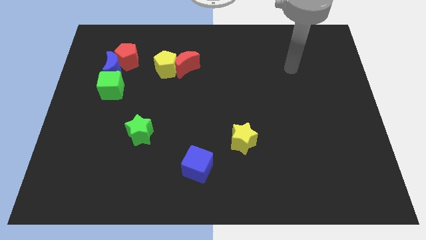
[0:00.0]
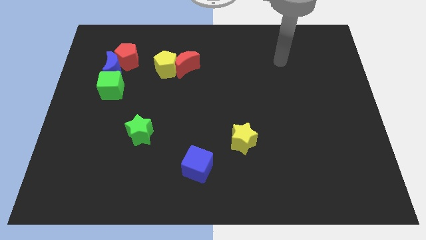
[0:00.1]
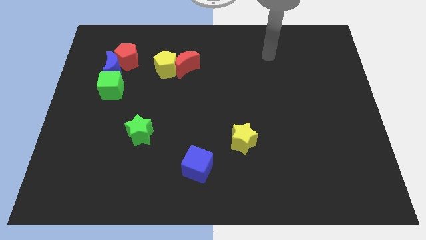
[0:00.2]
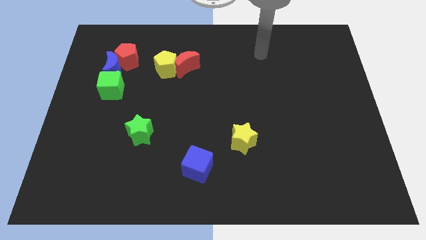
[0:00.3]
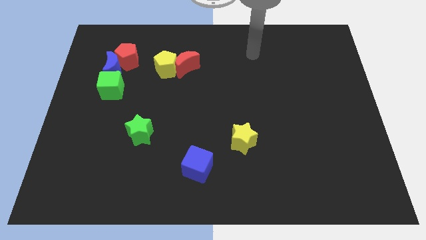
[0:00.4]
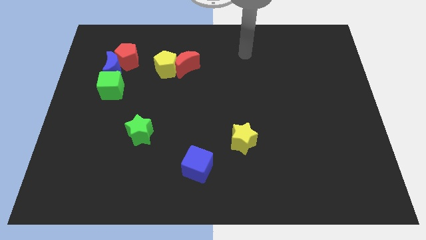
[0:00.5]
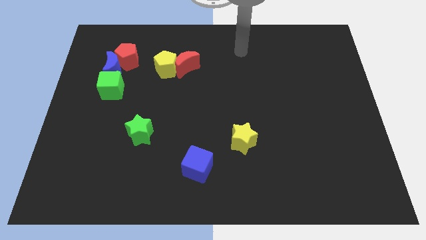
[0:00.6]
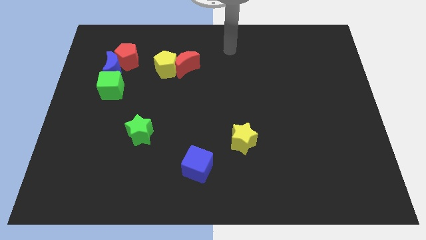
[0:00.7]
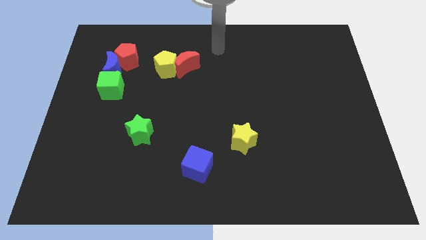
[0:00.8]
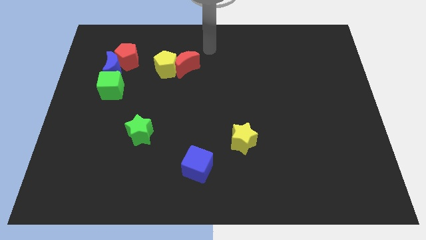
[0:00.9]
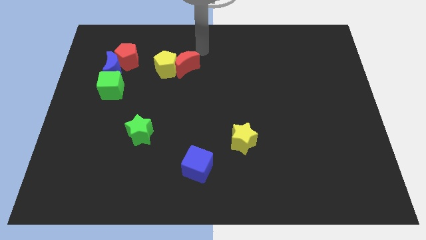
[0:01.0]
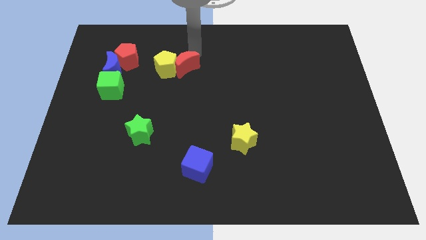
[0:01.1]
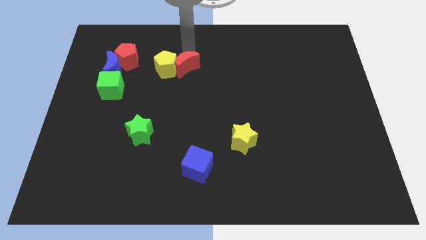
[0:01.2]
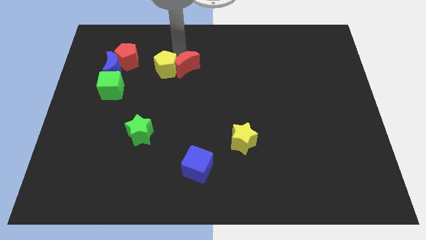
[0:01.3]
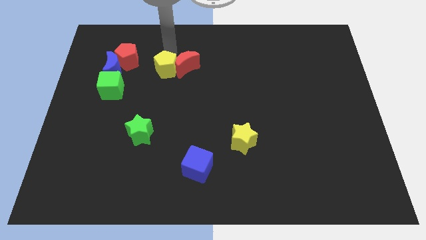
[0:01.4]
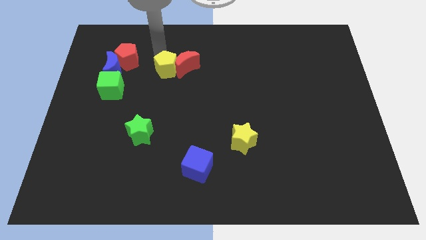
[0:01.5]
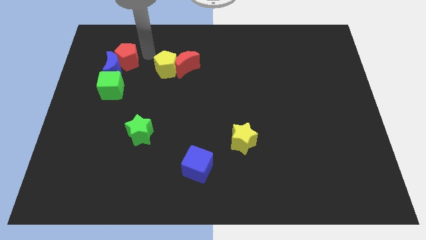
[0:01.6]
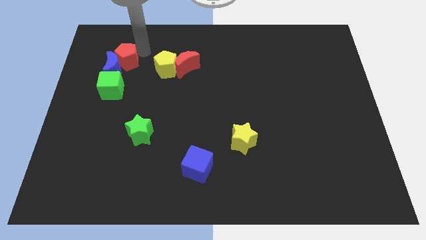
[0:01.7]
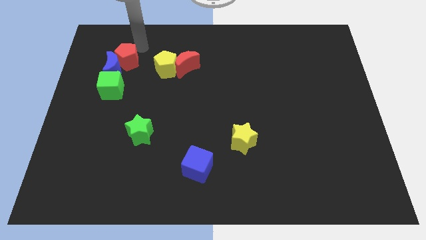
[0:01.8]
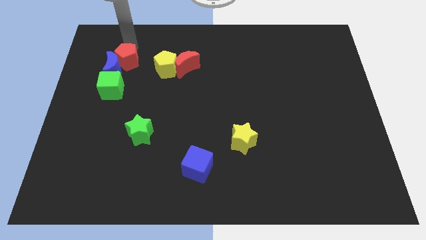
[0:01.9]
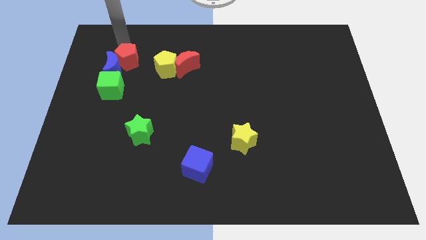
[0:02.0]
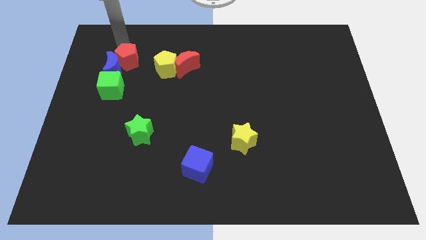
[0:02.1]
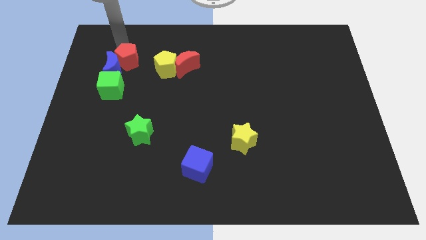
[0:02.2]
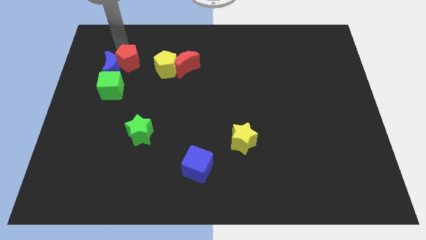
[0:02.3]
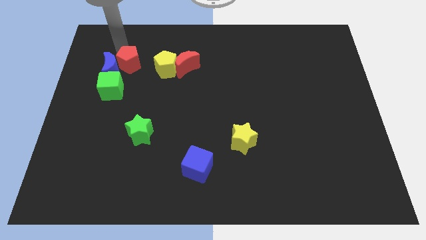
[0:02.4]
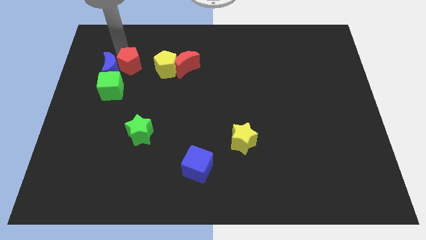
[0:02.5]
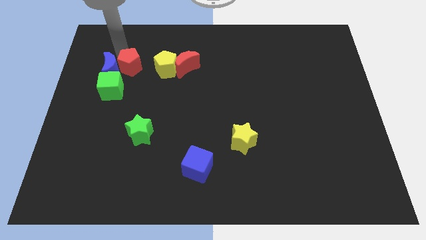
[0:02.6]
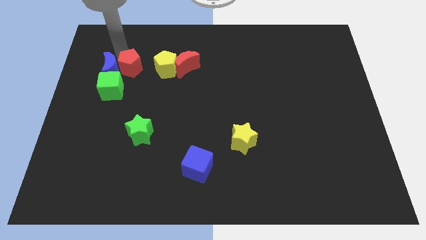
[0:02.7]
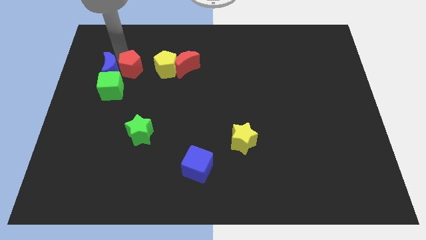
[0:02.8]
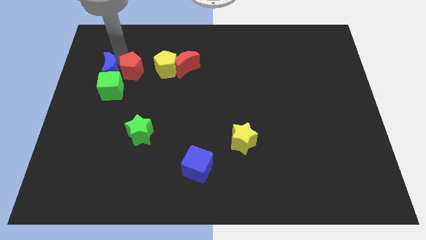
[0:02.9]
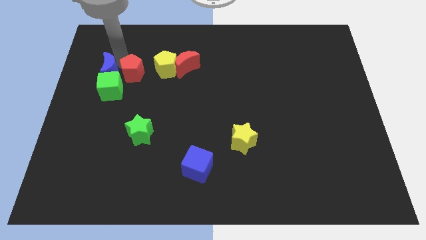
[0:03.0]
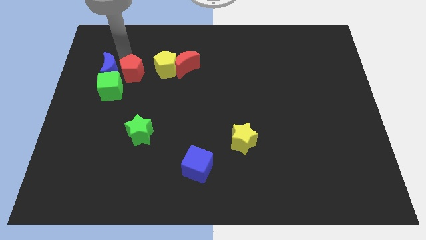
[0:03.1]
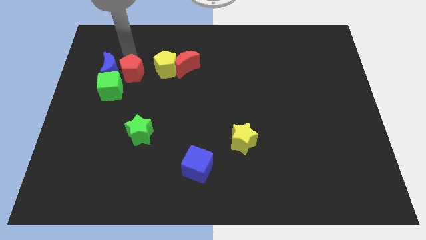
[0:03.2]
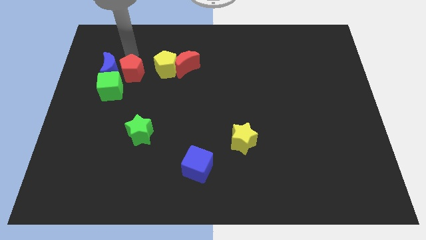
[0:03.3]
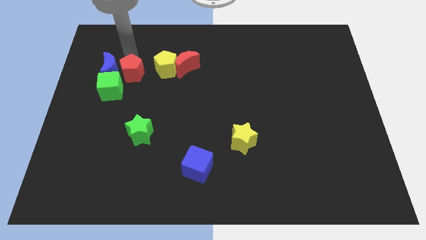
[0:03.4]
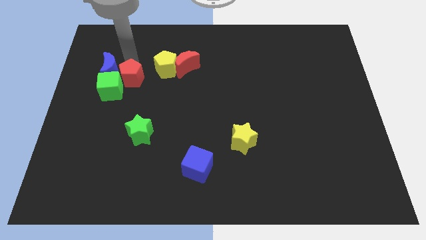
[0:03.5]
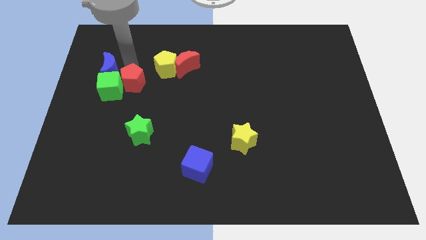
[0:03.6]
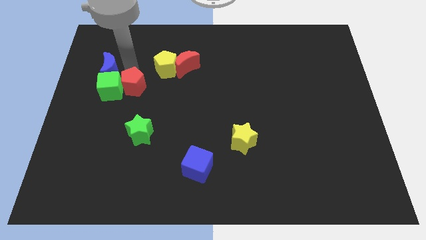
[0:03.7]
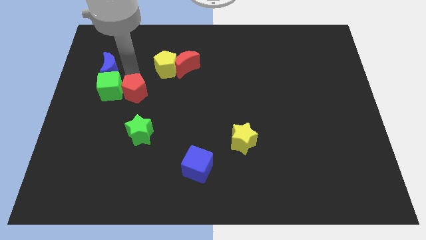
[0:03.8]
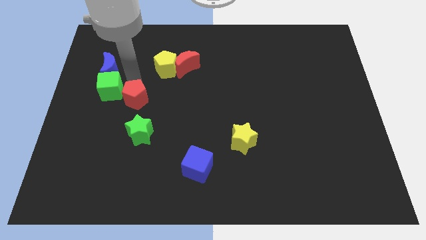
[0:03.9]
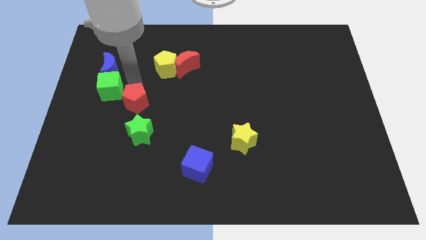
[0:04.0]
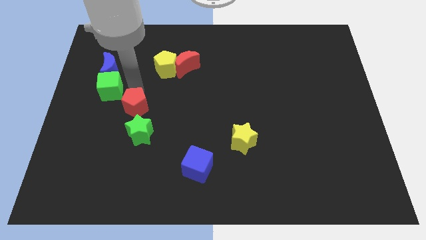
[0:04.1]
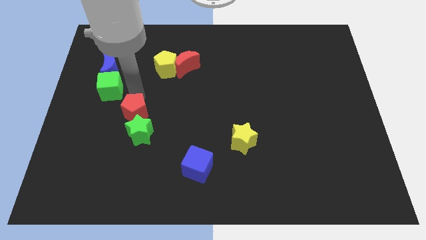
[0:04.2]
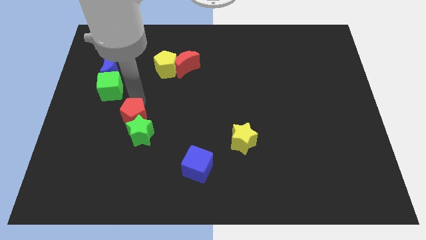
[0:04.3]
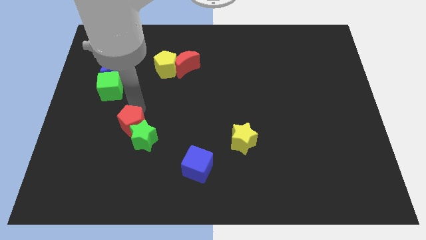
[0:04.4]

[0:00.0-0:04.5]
slide the red pentagon downwards

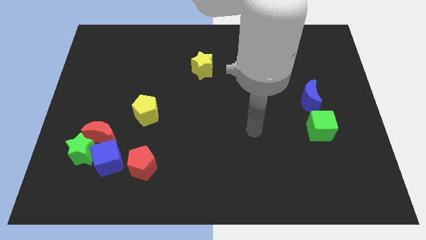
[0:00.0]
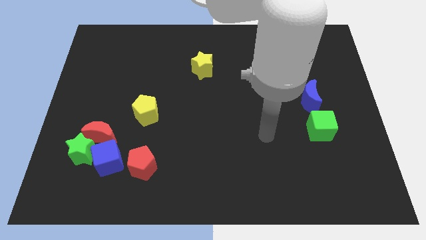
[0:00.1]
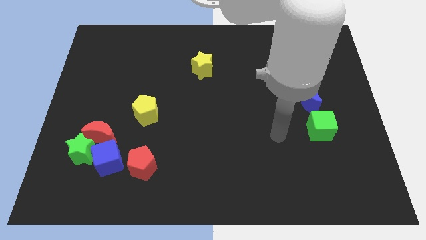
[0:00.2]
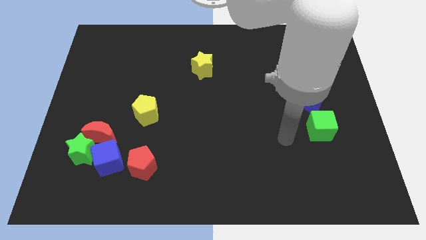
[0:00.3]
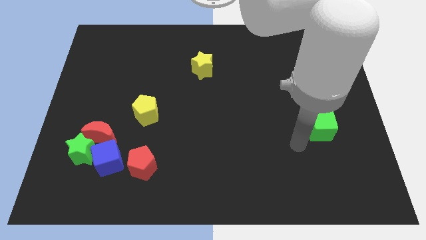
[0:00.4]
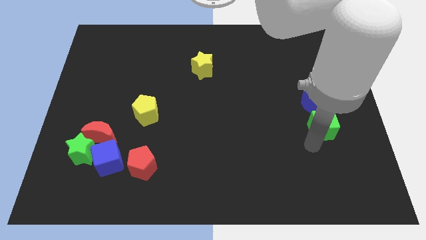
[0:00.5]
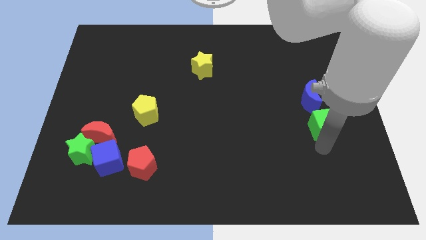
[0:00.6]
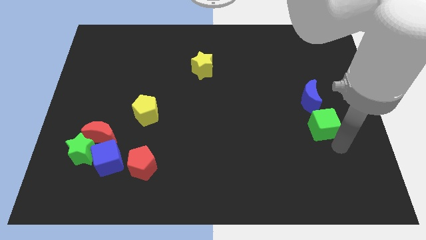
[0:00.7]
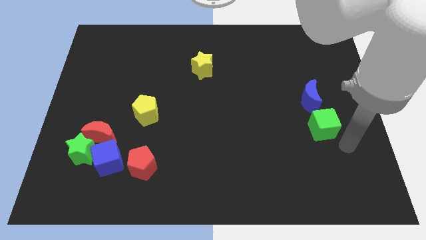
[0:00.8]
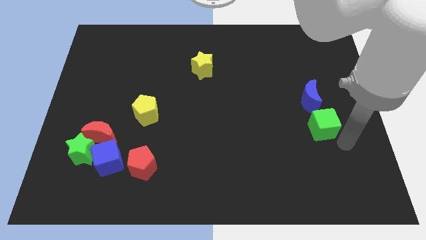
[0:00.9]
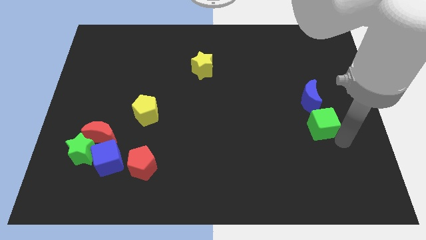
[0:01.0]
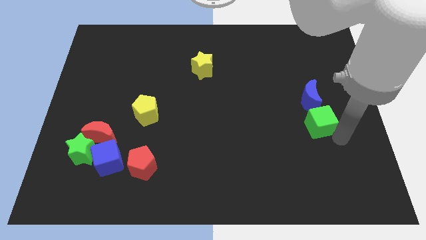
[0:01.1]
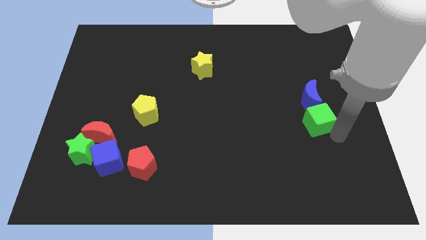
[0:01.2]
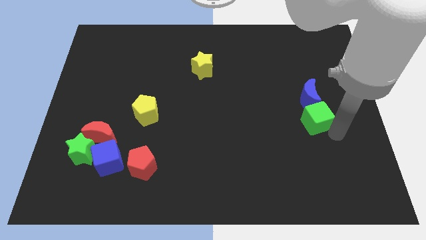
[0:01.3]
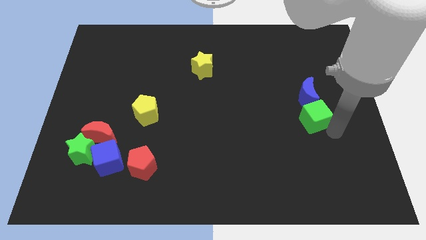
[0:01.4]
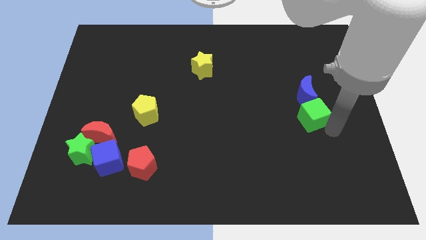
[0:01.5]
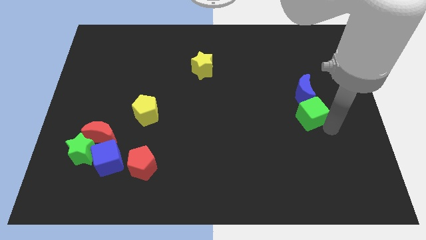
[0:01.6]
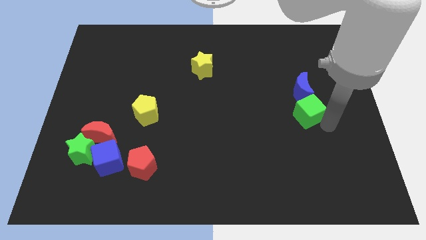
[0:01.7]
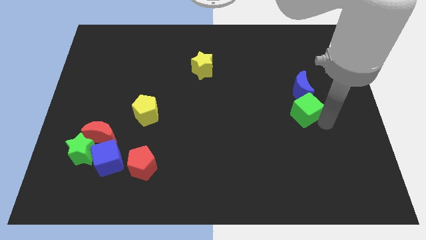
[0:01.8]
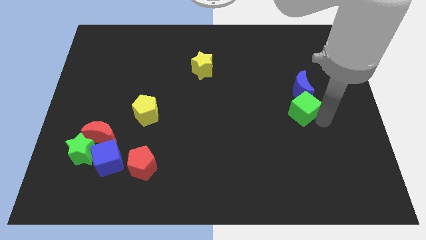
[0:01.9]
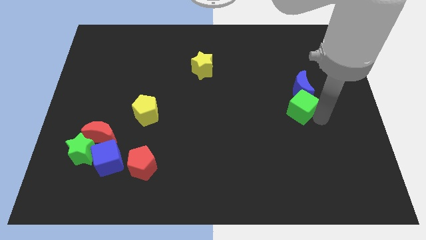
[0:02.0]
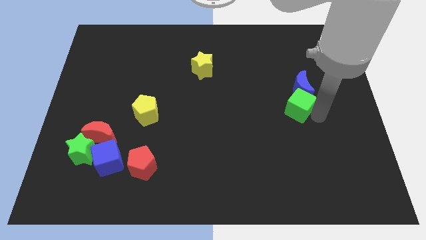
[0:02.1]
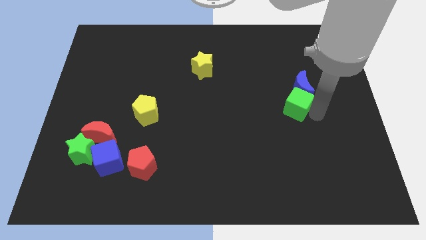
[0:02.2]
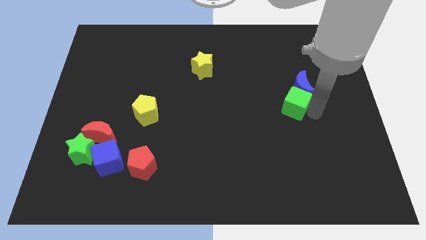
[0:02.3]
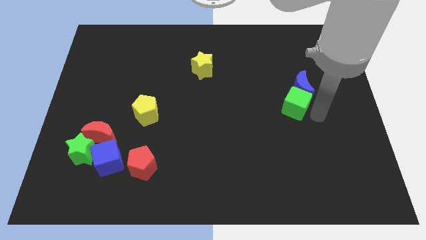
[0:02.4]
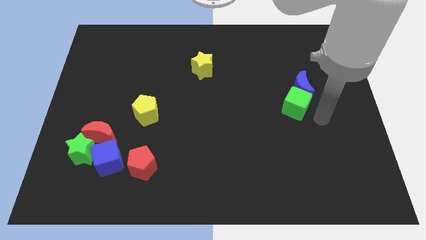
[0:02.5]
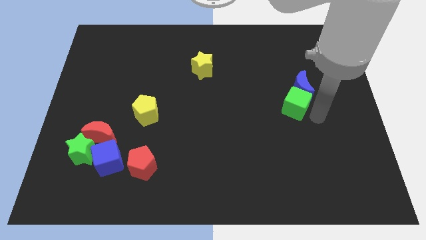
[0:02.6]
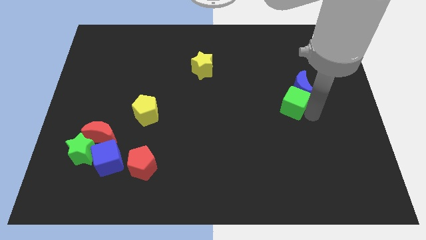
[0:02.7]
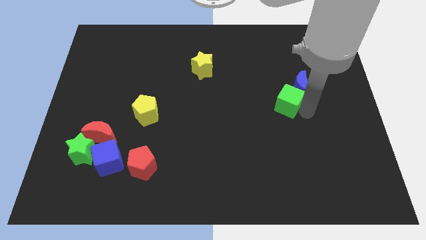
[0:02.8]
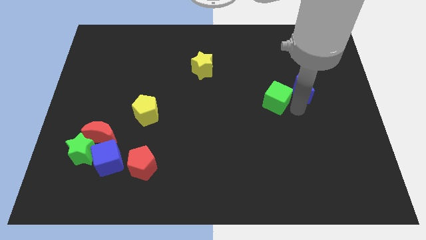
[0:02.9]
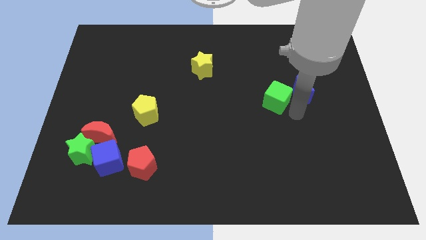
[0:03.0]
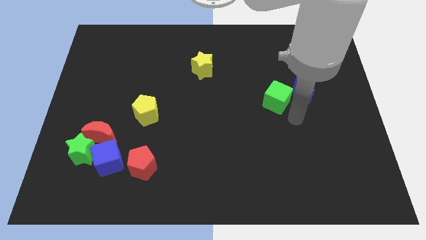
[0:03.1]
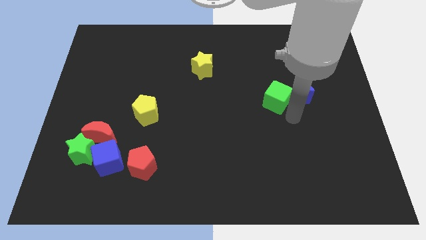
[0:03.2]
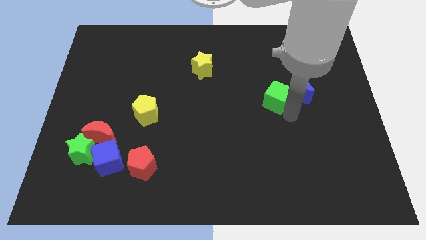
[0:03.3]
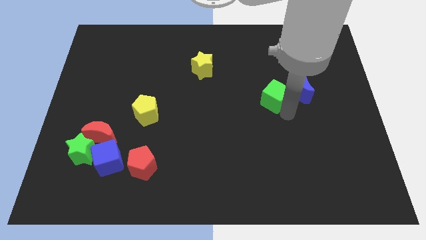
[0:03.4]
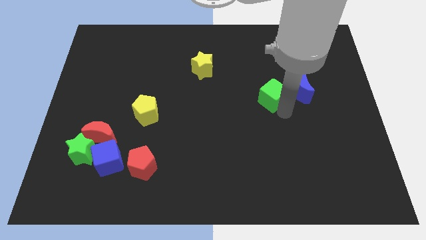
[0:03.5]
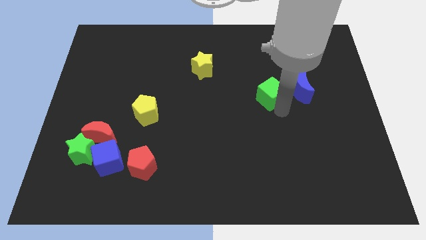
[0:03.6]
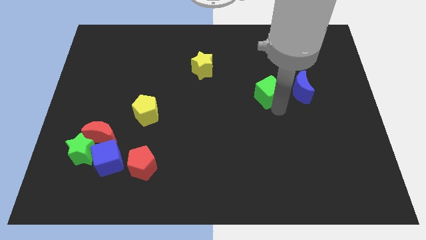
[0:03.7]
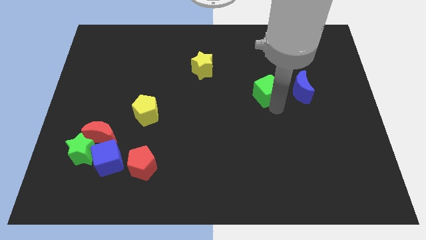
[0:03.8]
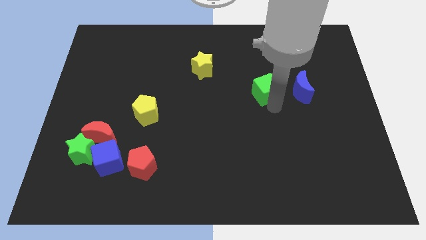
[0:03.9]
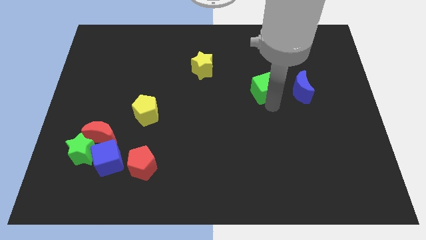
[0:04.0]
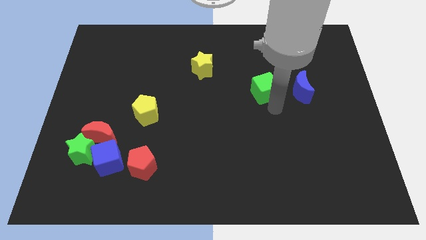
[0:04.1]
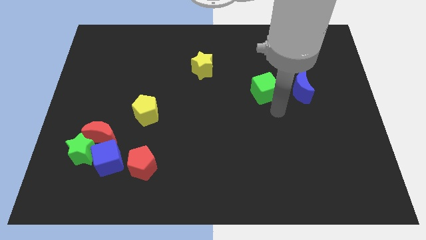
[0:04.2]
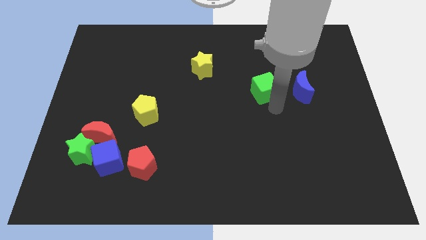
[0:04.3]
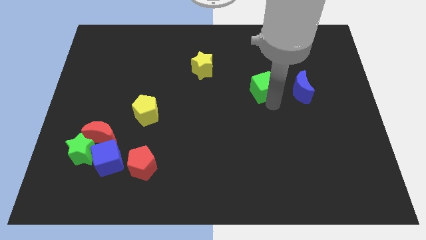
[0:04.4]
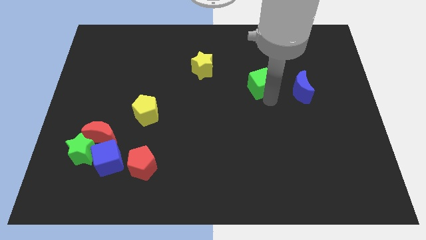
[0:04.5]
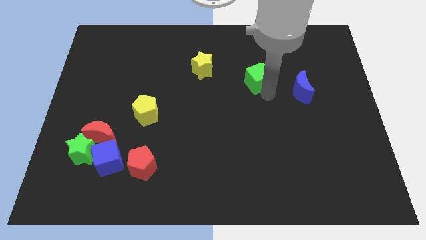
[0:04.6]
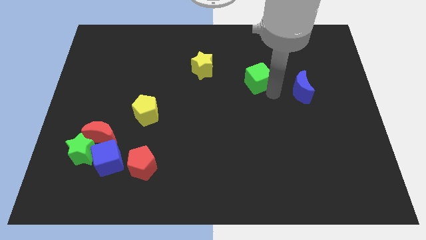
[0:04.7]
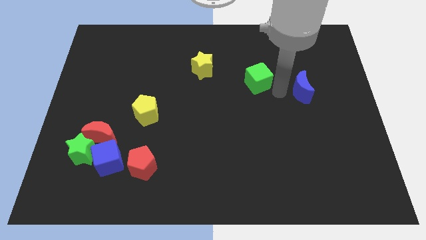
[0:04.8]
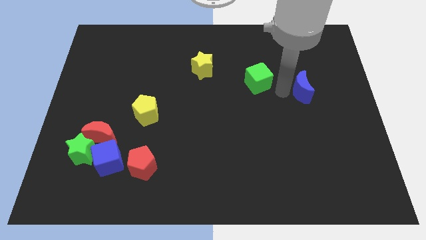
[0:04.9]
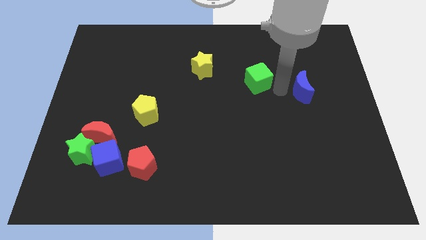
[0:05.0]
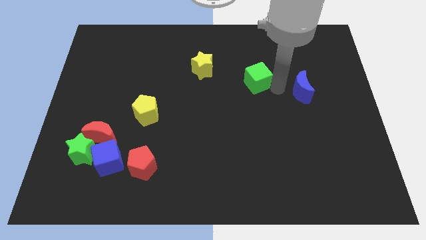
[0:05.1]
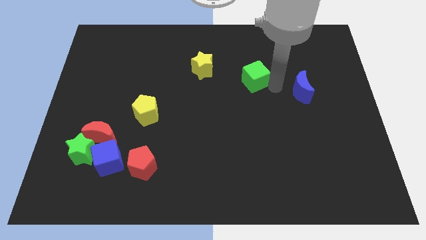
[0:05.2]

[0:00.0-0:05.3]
move the green cube upwards and left diagonally
